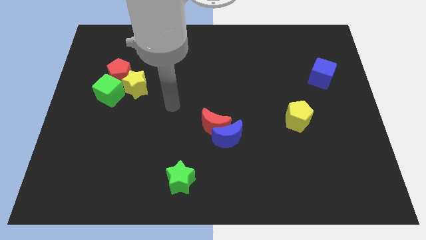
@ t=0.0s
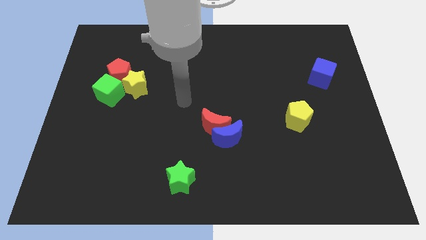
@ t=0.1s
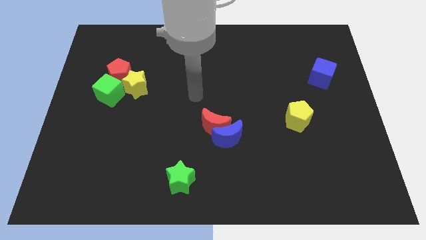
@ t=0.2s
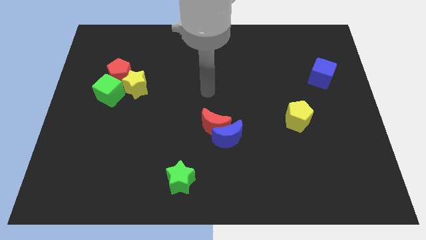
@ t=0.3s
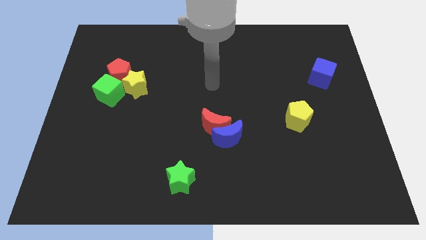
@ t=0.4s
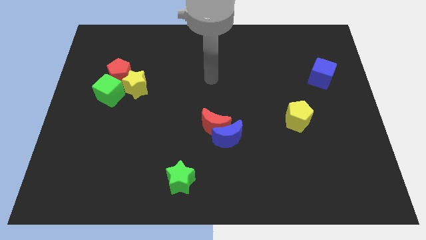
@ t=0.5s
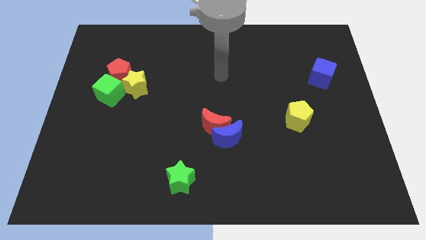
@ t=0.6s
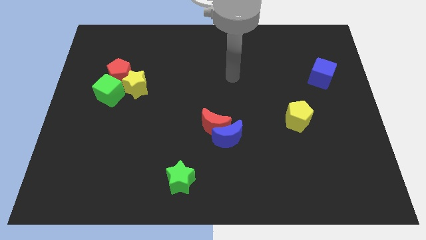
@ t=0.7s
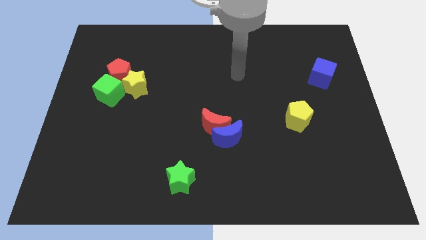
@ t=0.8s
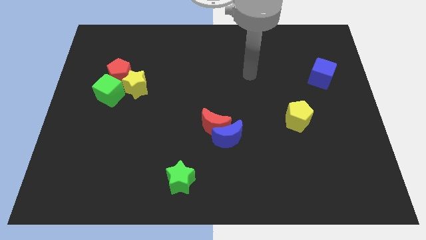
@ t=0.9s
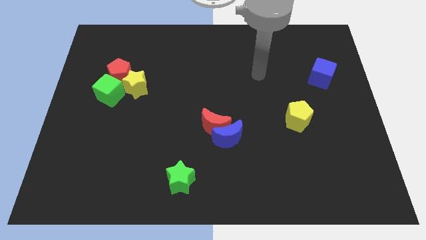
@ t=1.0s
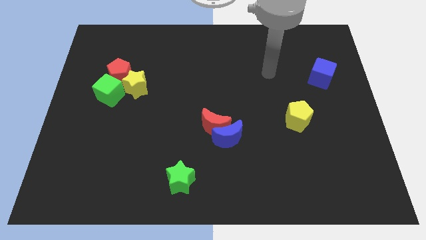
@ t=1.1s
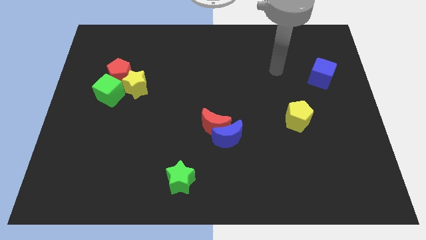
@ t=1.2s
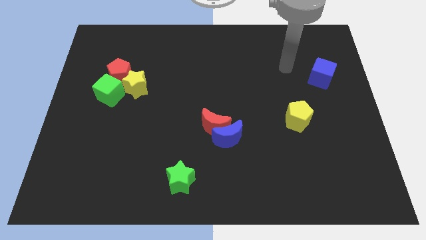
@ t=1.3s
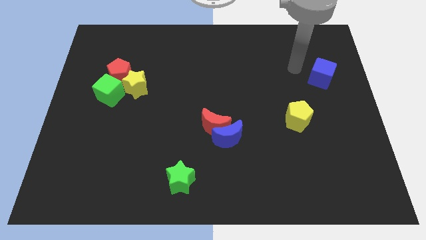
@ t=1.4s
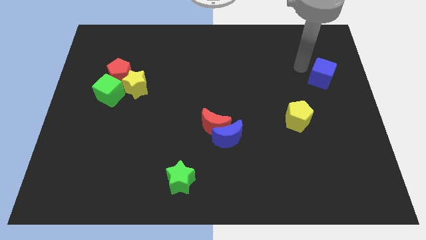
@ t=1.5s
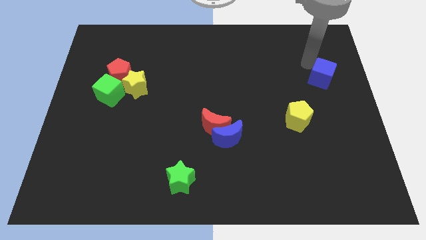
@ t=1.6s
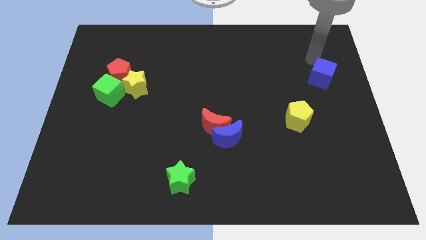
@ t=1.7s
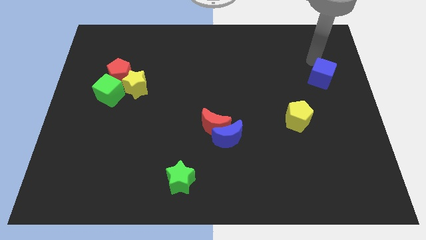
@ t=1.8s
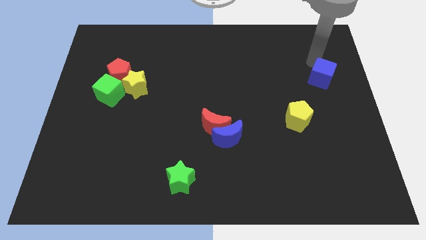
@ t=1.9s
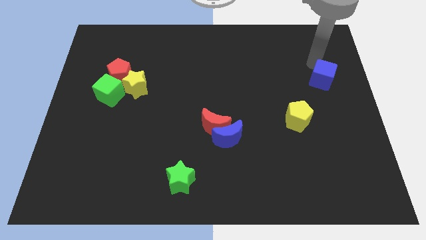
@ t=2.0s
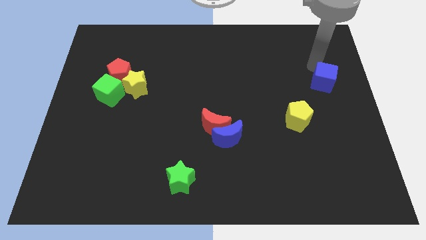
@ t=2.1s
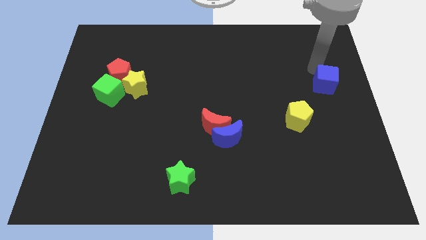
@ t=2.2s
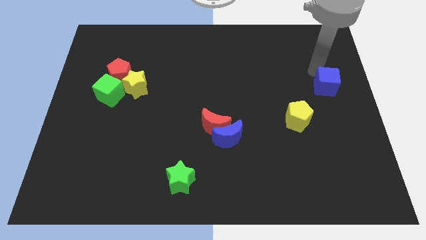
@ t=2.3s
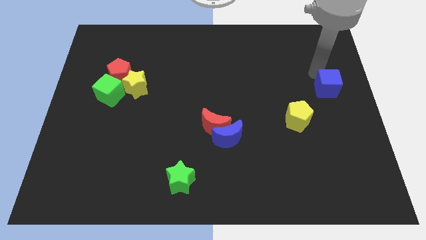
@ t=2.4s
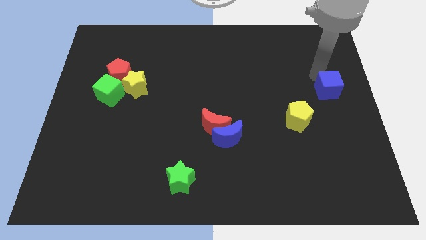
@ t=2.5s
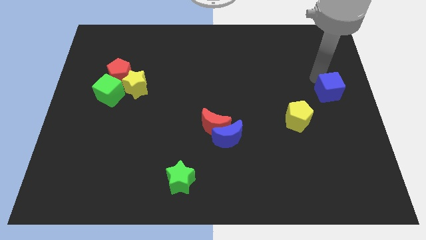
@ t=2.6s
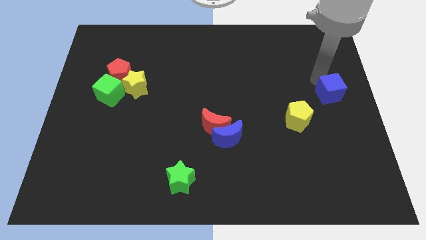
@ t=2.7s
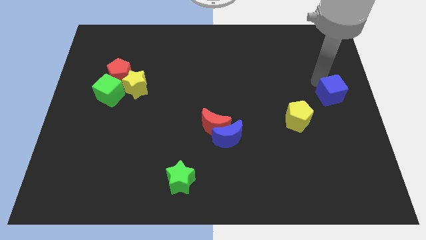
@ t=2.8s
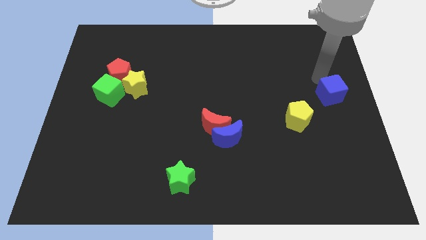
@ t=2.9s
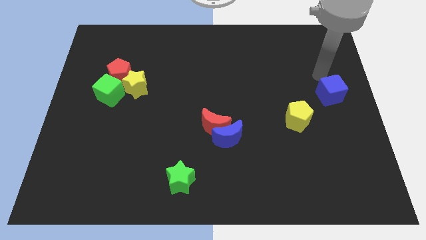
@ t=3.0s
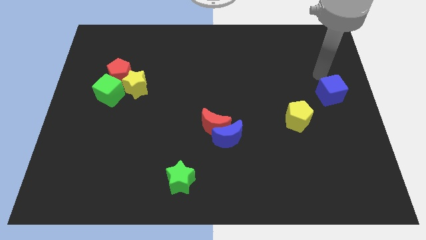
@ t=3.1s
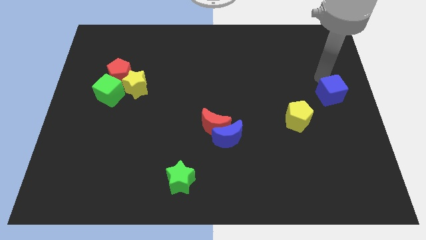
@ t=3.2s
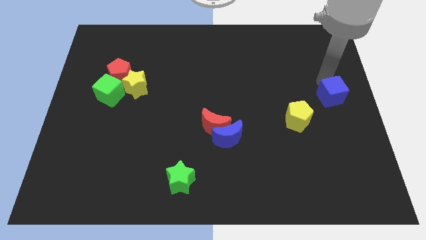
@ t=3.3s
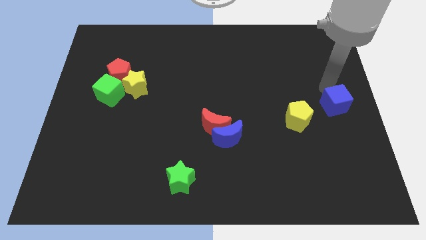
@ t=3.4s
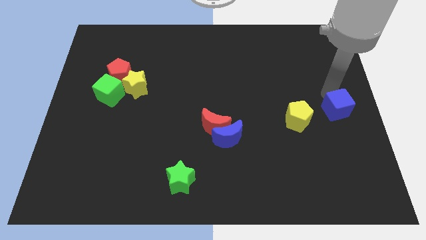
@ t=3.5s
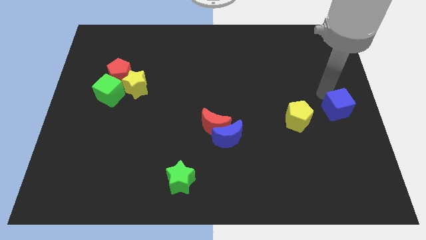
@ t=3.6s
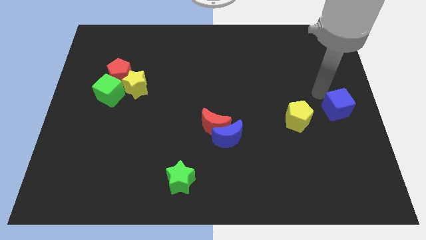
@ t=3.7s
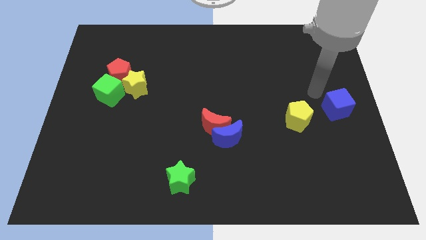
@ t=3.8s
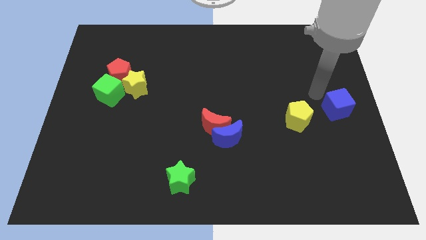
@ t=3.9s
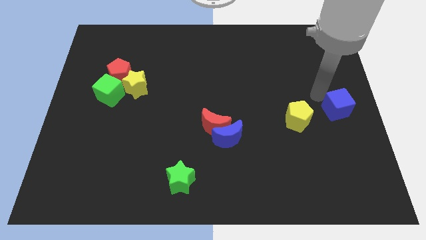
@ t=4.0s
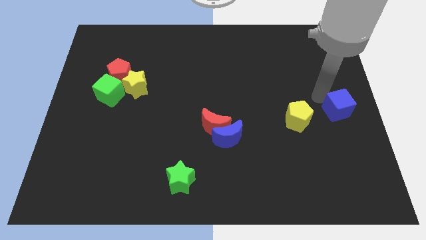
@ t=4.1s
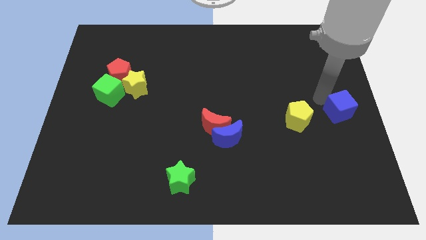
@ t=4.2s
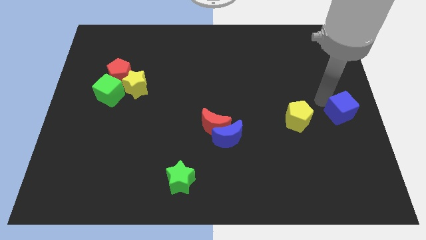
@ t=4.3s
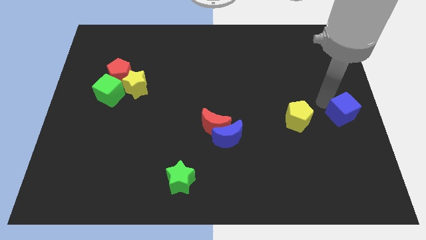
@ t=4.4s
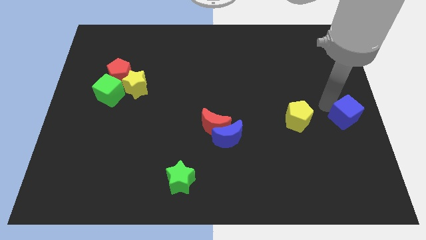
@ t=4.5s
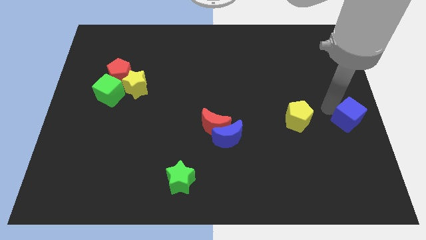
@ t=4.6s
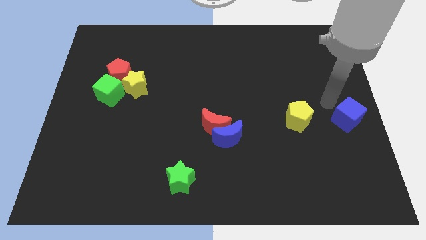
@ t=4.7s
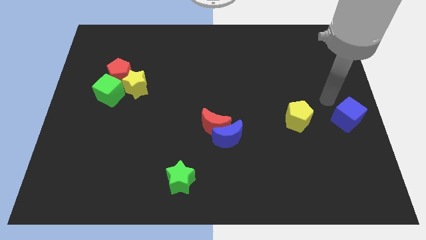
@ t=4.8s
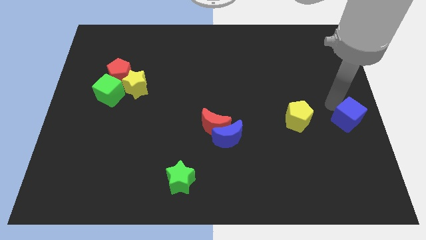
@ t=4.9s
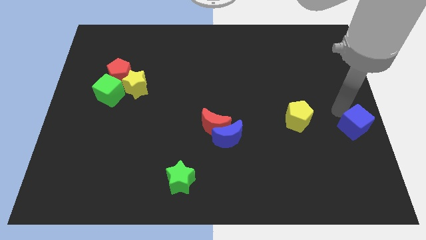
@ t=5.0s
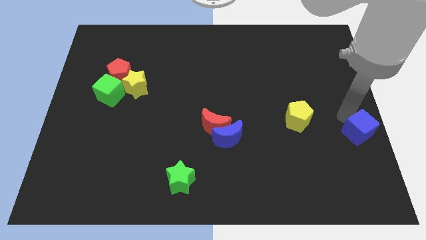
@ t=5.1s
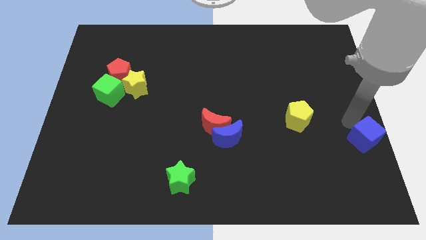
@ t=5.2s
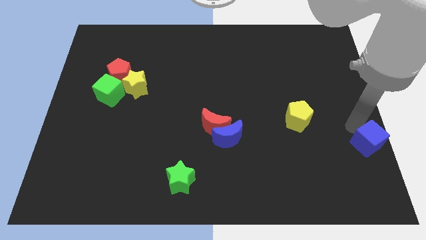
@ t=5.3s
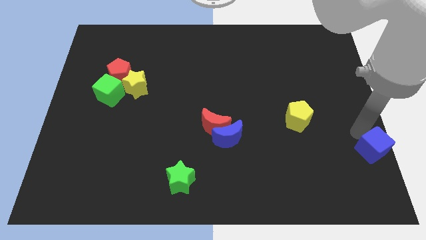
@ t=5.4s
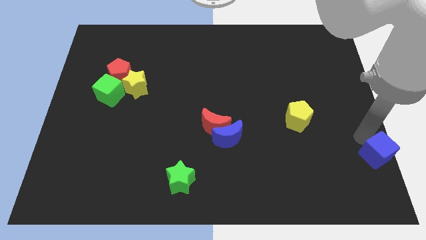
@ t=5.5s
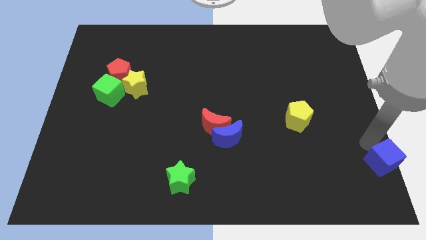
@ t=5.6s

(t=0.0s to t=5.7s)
push the blue cube to the bottom right
